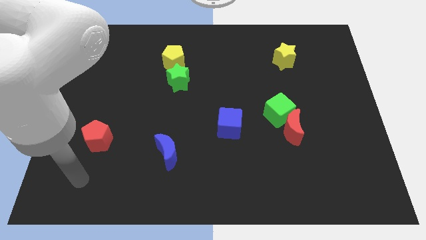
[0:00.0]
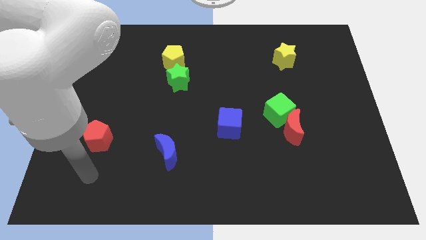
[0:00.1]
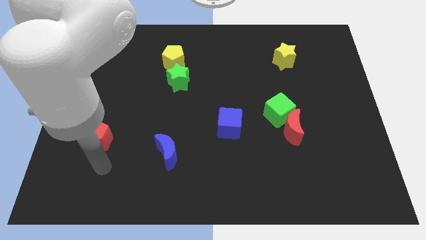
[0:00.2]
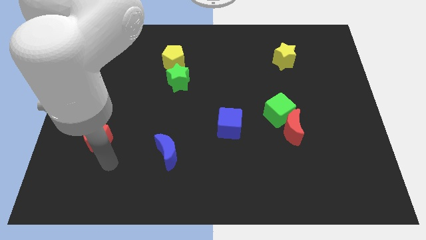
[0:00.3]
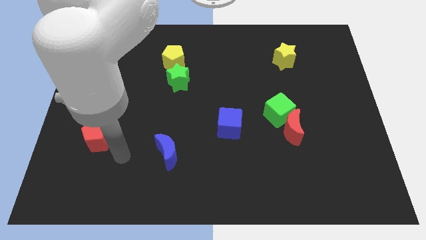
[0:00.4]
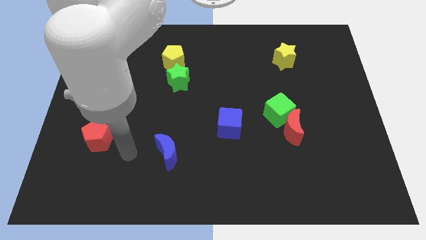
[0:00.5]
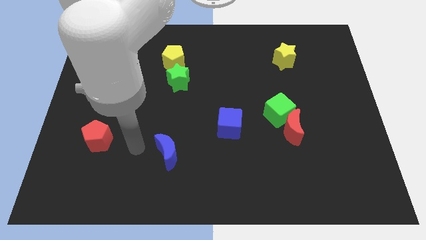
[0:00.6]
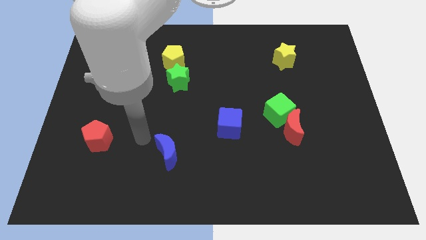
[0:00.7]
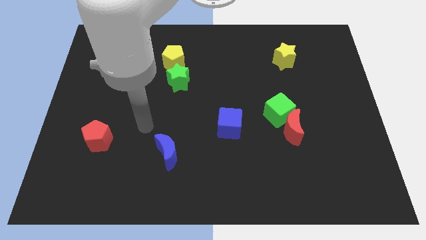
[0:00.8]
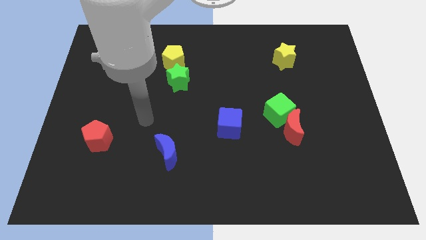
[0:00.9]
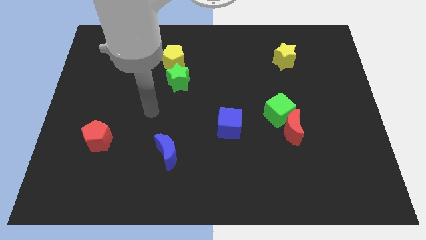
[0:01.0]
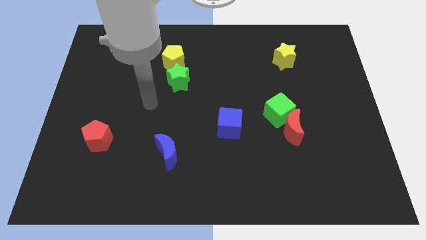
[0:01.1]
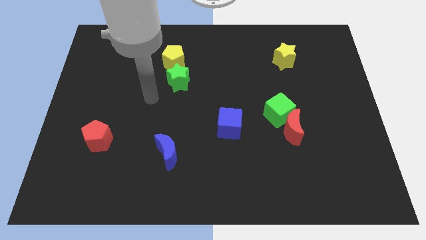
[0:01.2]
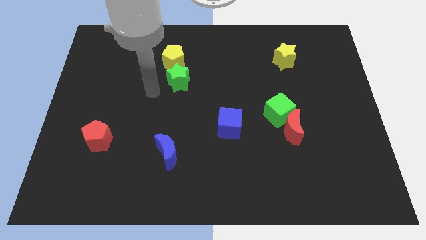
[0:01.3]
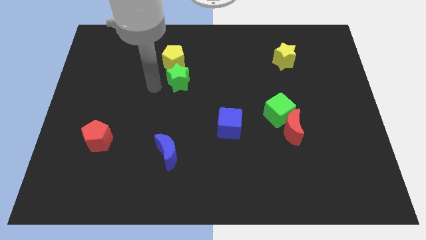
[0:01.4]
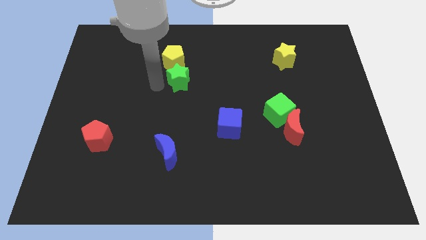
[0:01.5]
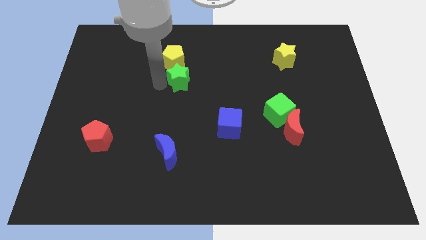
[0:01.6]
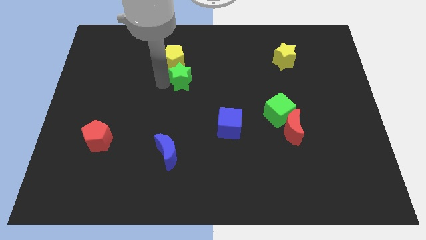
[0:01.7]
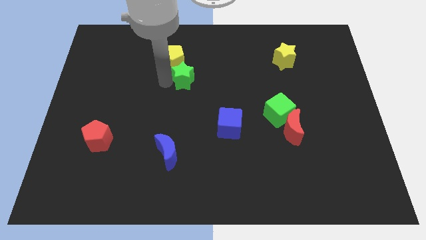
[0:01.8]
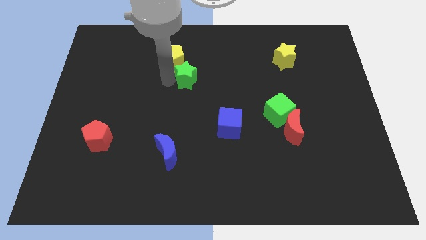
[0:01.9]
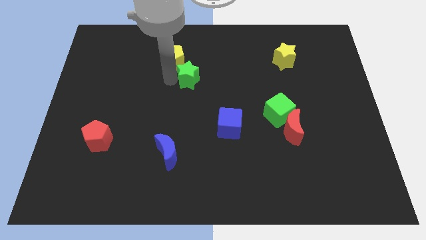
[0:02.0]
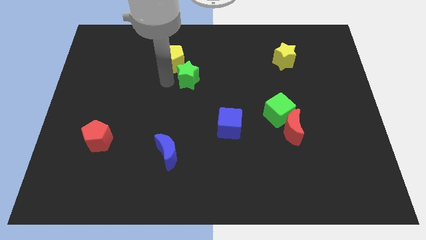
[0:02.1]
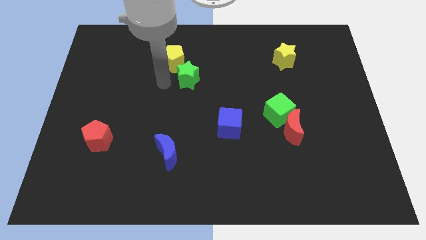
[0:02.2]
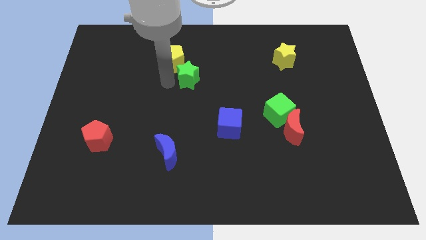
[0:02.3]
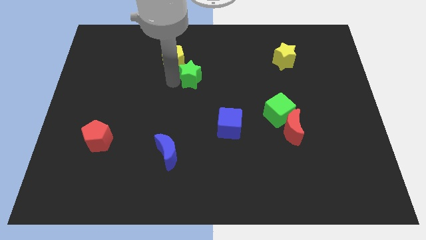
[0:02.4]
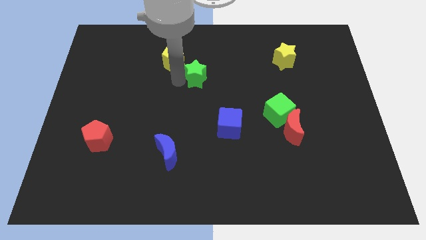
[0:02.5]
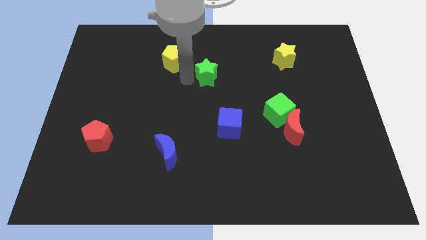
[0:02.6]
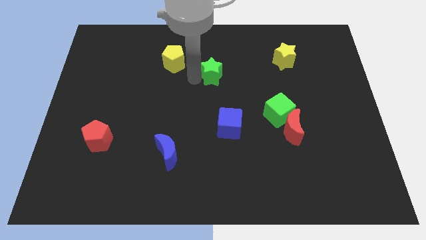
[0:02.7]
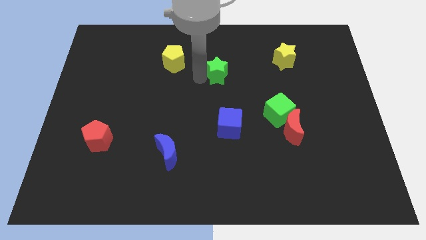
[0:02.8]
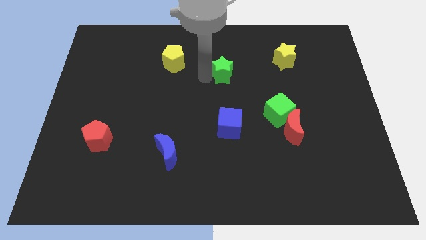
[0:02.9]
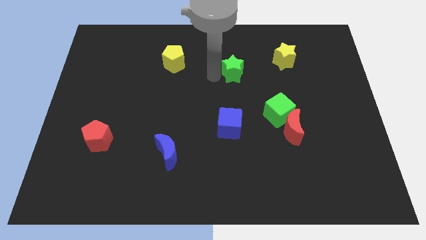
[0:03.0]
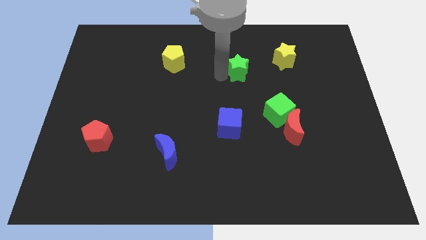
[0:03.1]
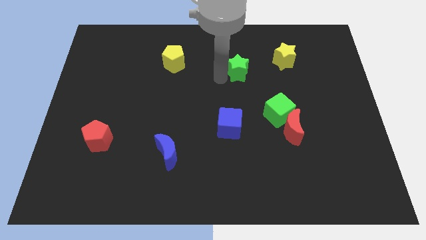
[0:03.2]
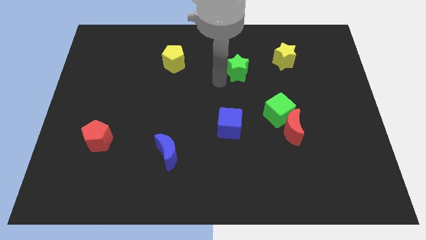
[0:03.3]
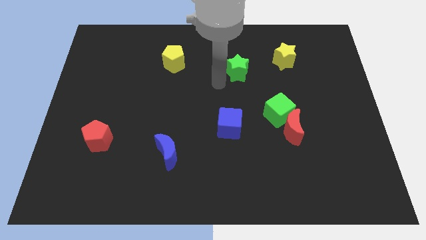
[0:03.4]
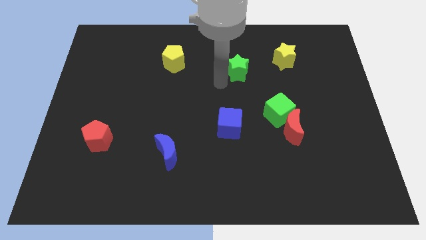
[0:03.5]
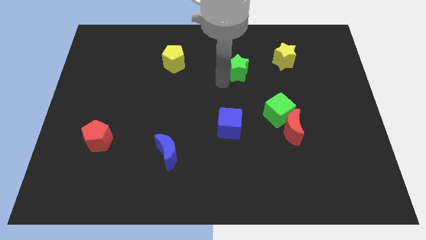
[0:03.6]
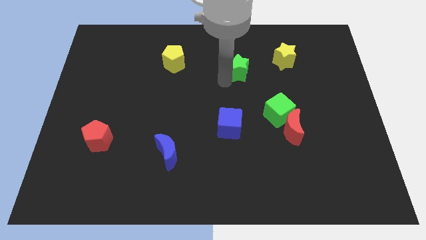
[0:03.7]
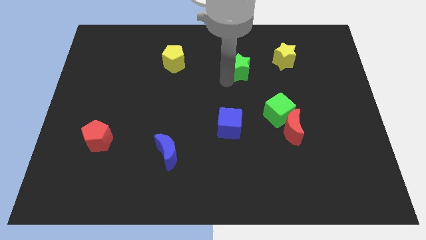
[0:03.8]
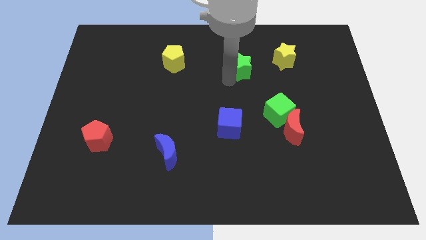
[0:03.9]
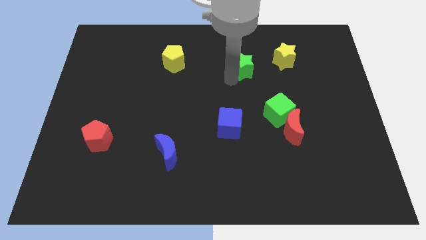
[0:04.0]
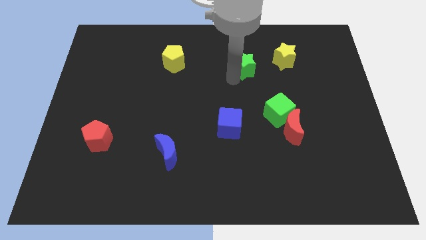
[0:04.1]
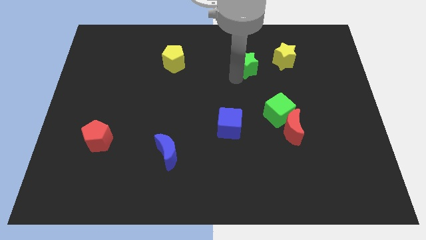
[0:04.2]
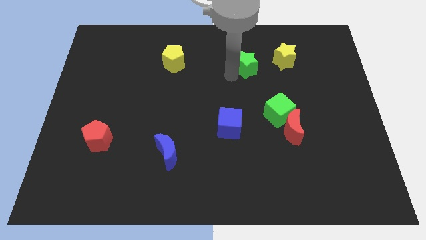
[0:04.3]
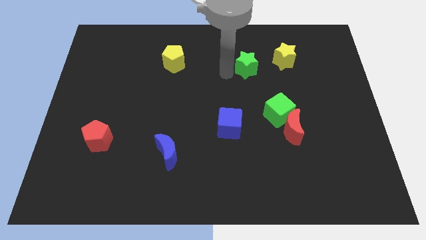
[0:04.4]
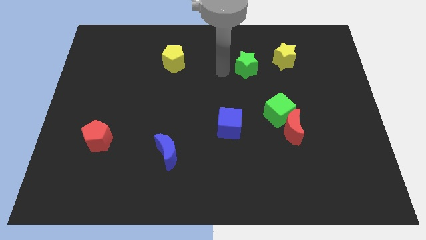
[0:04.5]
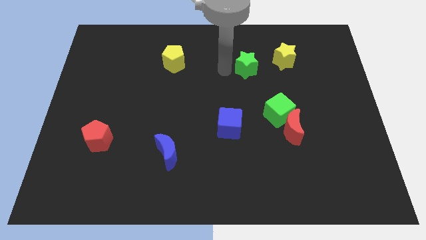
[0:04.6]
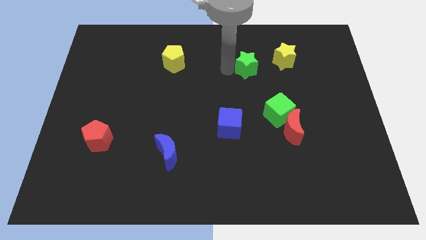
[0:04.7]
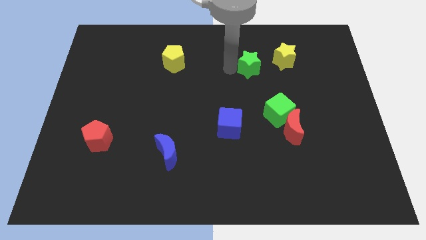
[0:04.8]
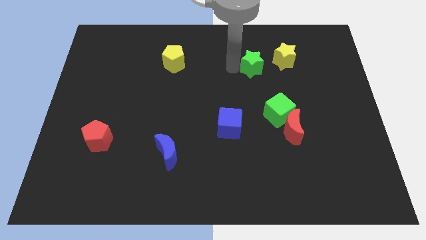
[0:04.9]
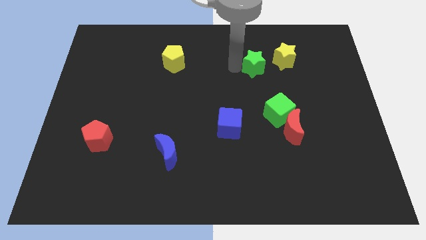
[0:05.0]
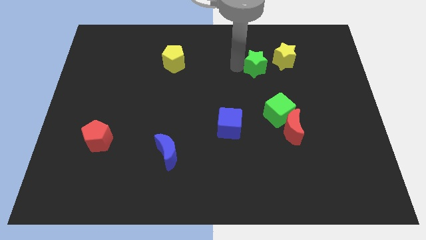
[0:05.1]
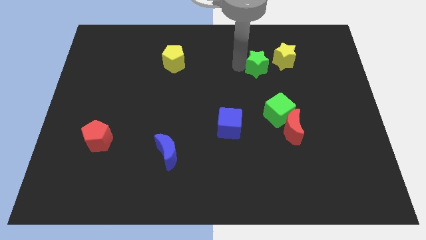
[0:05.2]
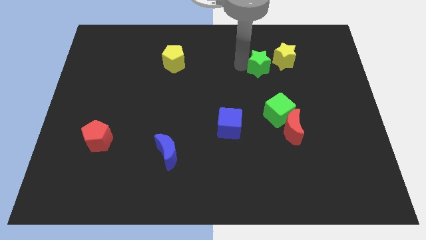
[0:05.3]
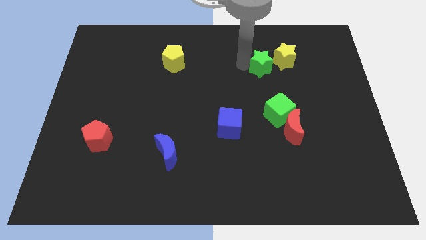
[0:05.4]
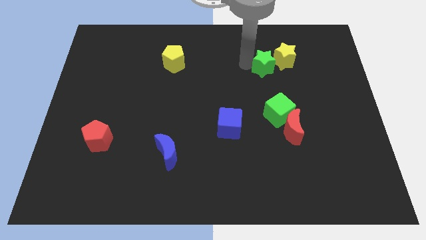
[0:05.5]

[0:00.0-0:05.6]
put the green star to the yellow star

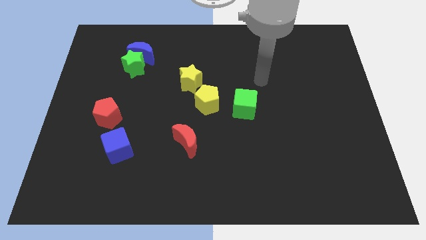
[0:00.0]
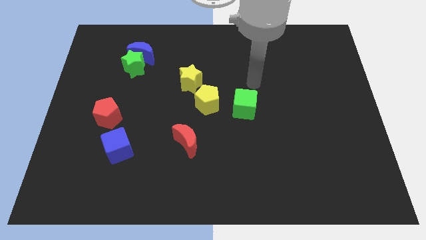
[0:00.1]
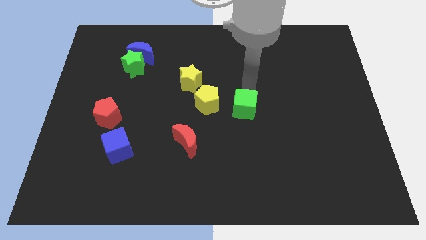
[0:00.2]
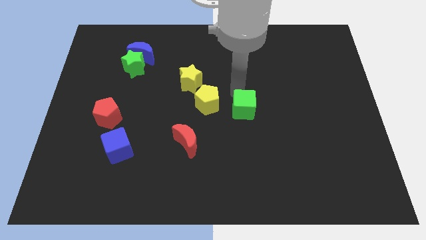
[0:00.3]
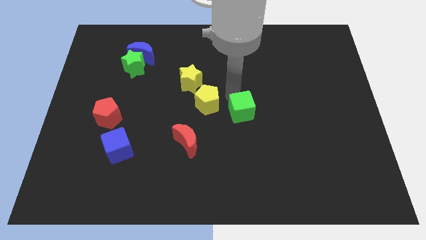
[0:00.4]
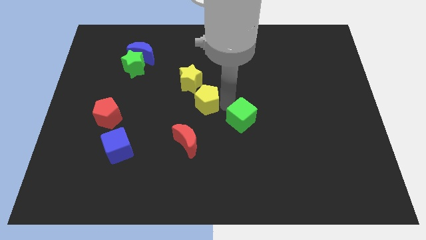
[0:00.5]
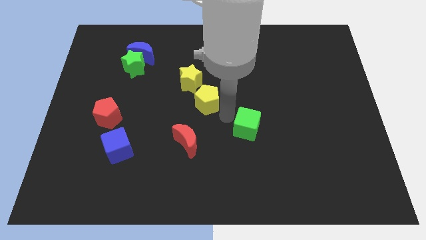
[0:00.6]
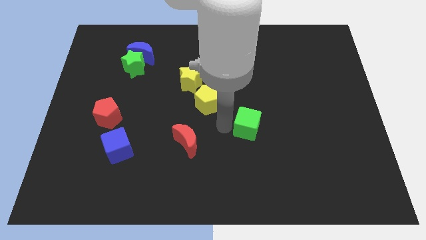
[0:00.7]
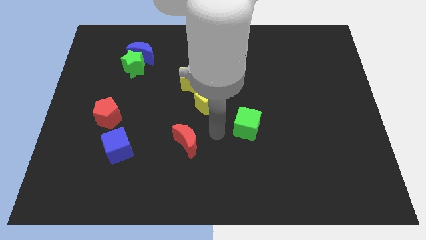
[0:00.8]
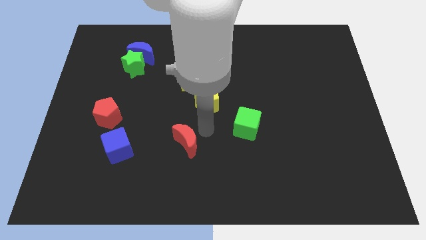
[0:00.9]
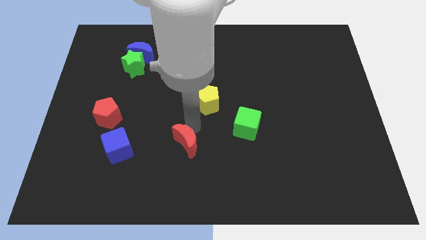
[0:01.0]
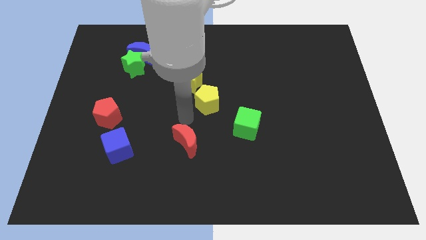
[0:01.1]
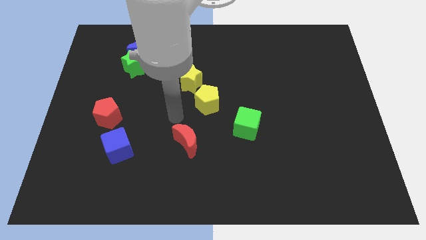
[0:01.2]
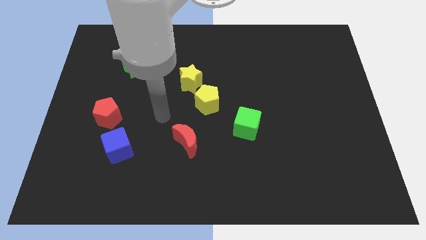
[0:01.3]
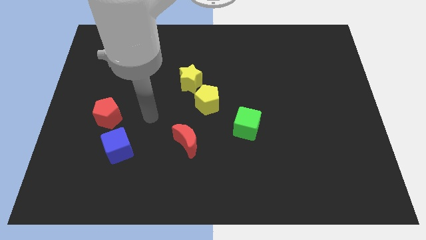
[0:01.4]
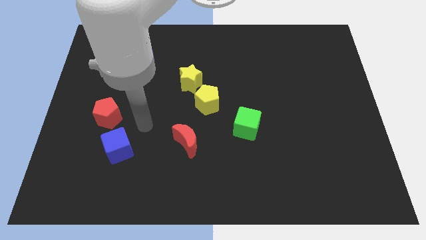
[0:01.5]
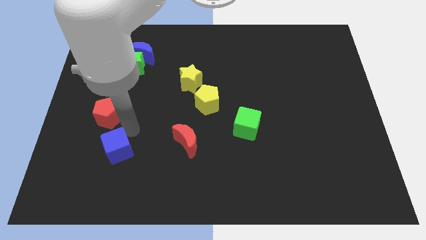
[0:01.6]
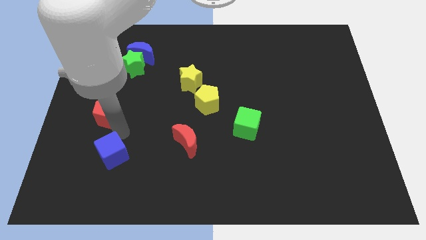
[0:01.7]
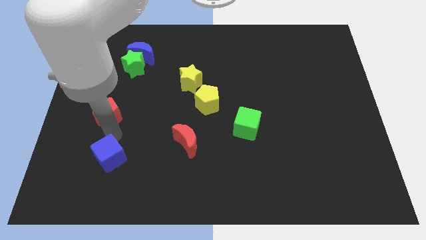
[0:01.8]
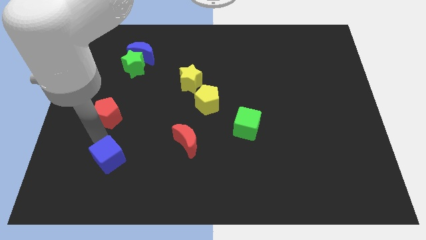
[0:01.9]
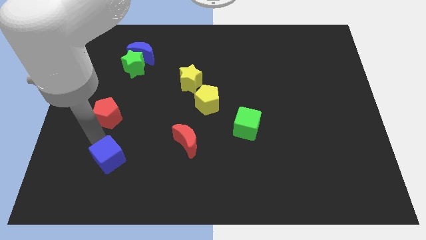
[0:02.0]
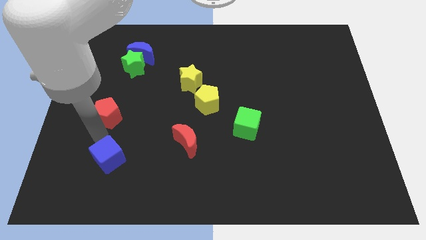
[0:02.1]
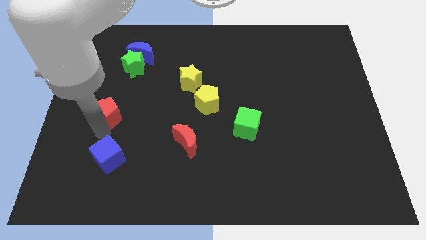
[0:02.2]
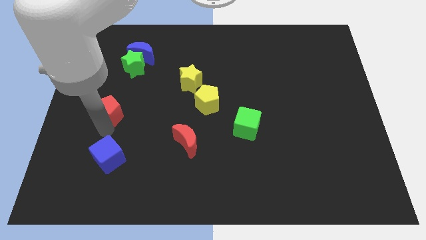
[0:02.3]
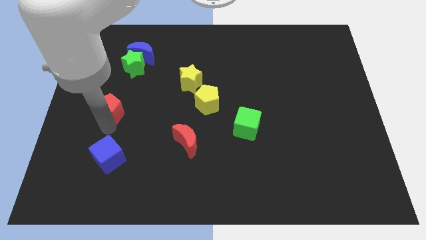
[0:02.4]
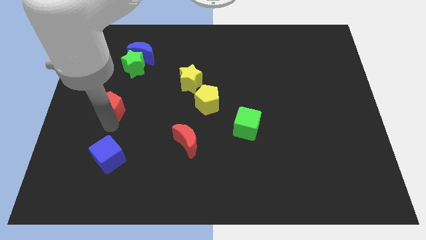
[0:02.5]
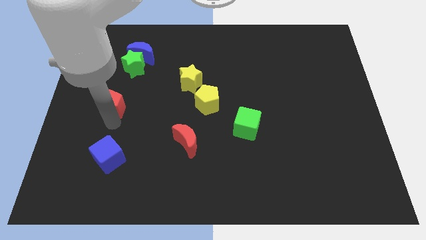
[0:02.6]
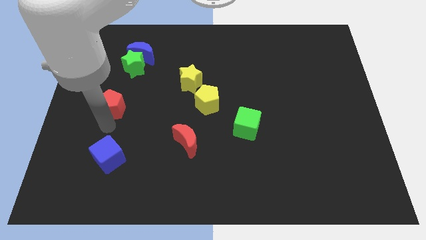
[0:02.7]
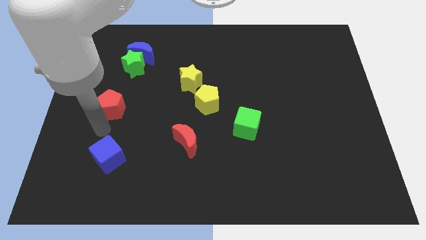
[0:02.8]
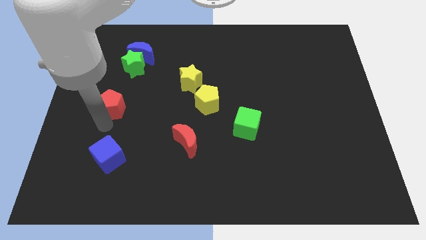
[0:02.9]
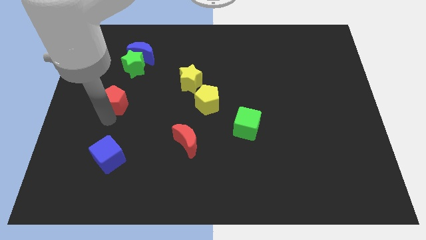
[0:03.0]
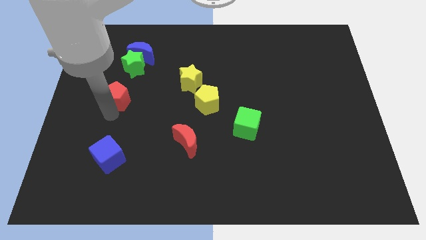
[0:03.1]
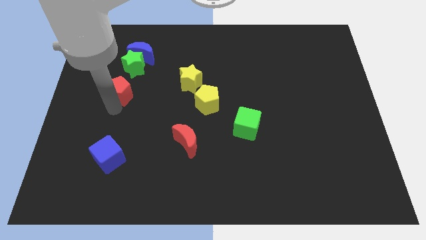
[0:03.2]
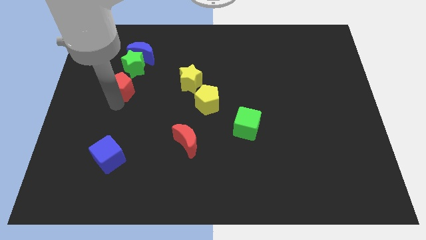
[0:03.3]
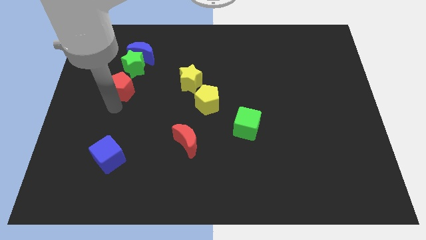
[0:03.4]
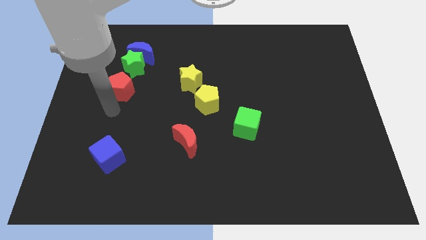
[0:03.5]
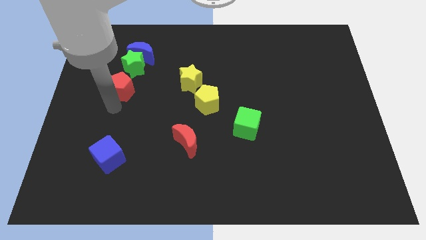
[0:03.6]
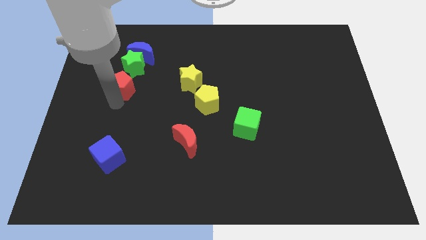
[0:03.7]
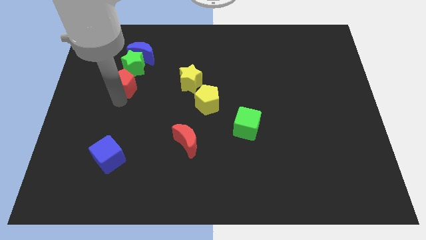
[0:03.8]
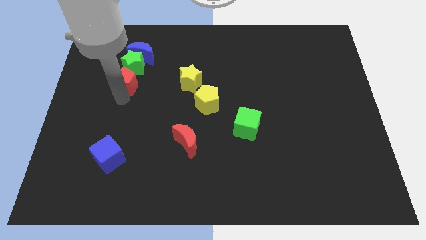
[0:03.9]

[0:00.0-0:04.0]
put the red pentagon next to the green star
